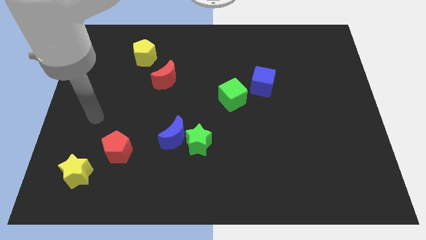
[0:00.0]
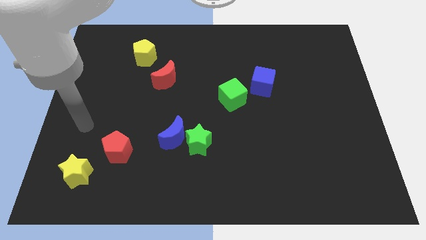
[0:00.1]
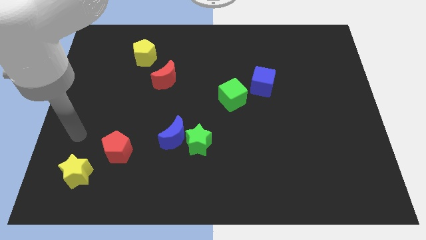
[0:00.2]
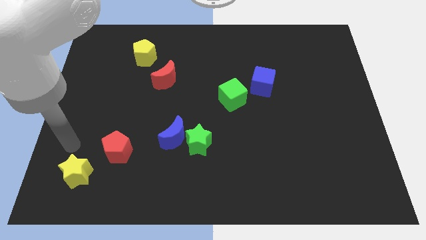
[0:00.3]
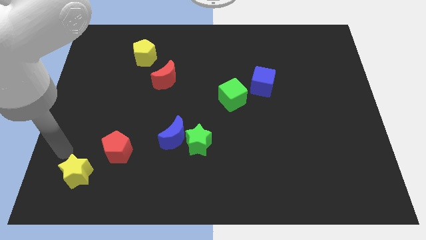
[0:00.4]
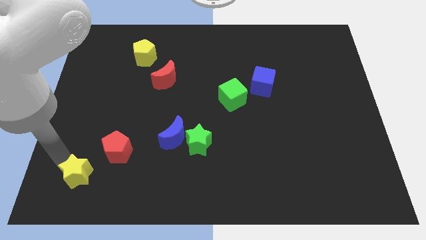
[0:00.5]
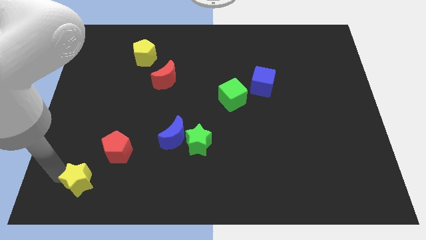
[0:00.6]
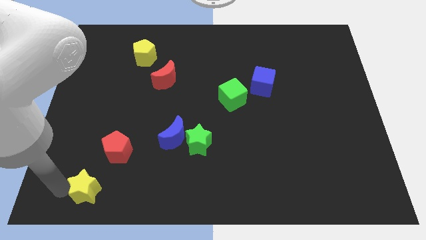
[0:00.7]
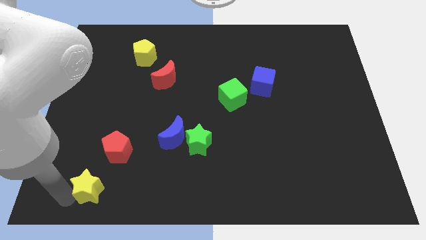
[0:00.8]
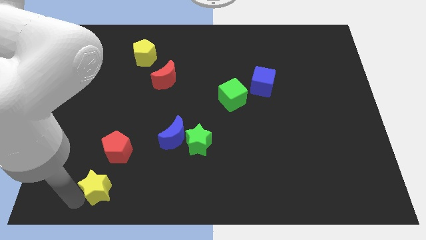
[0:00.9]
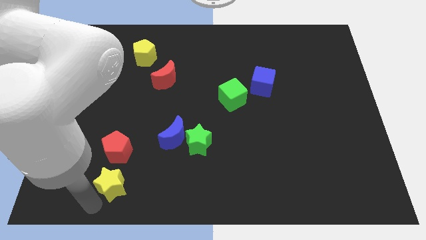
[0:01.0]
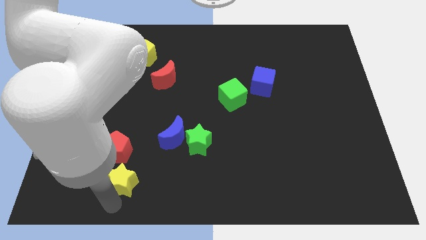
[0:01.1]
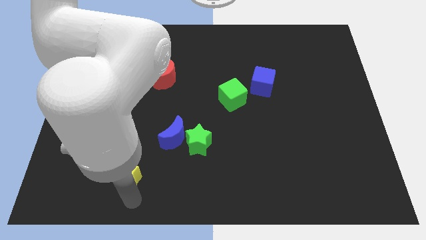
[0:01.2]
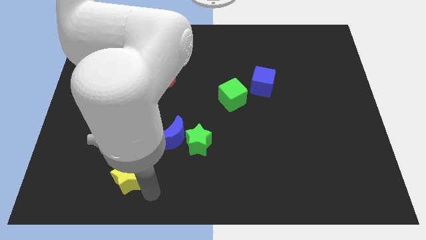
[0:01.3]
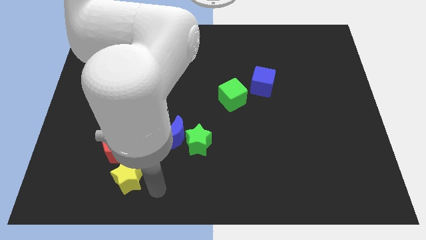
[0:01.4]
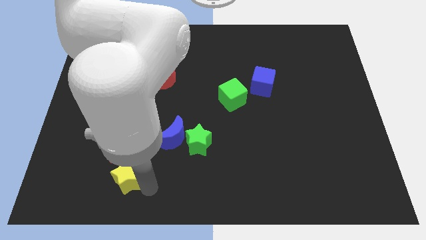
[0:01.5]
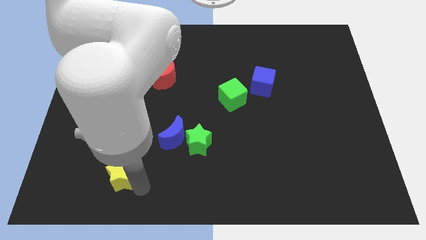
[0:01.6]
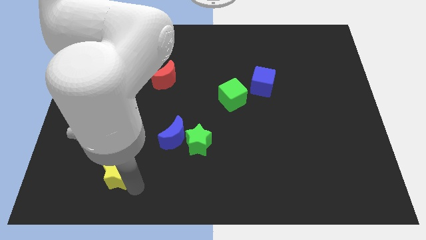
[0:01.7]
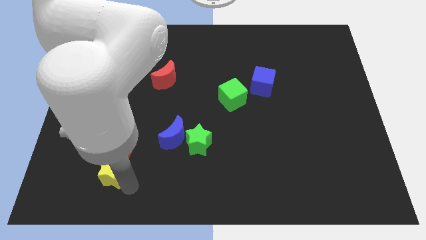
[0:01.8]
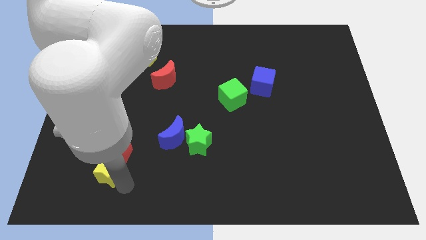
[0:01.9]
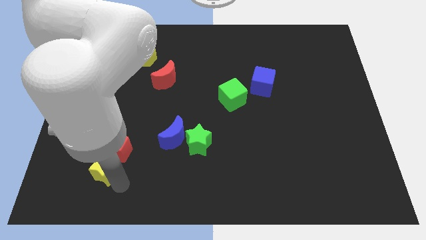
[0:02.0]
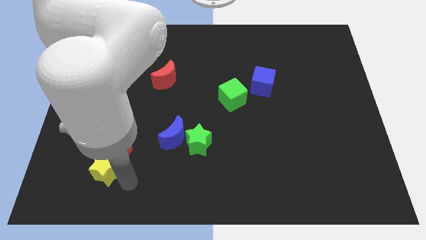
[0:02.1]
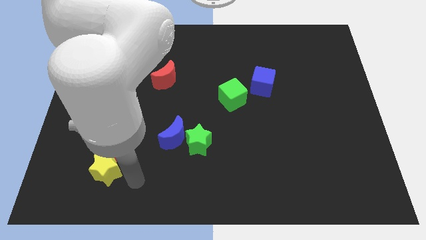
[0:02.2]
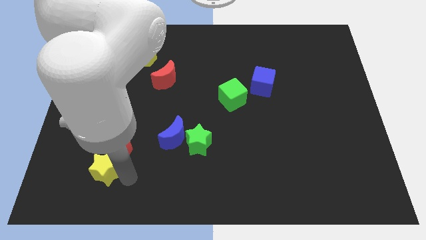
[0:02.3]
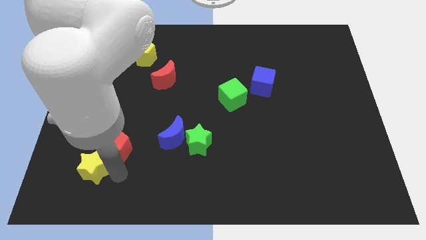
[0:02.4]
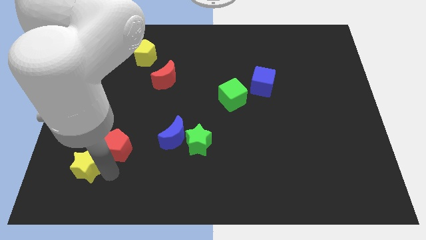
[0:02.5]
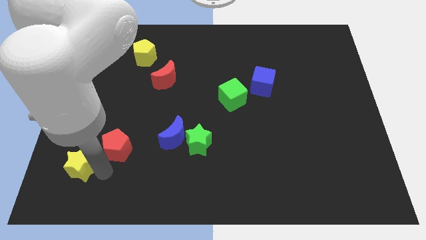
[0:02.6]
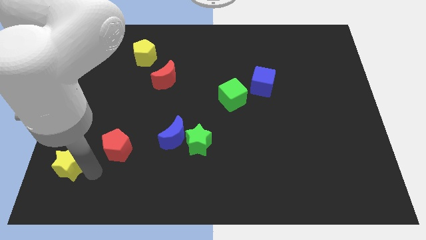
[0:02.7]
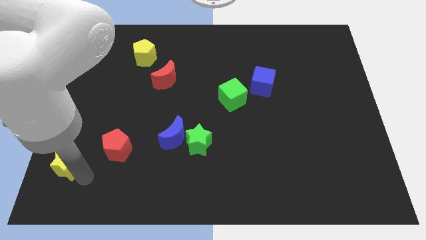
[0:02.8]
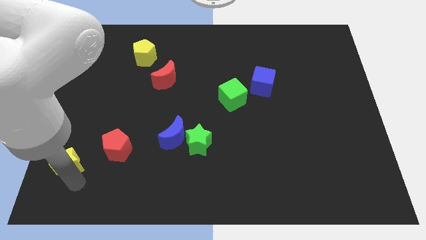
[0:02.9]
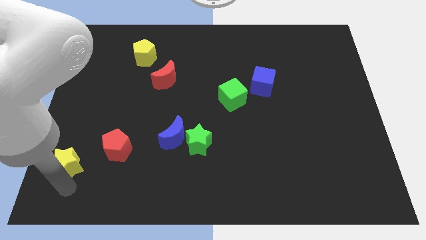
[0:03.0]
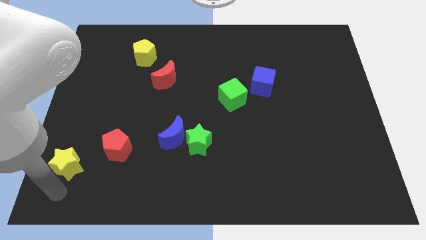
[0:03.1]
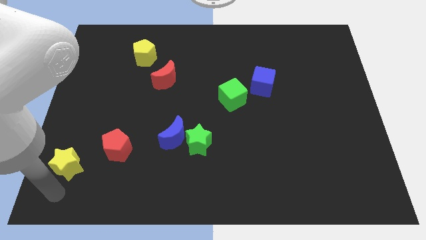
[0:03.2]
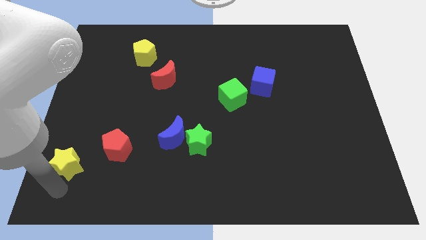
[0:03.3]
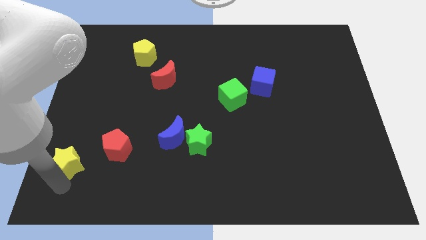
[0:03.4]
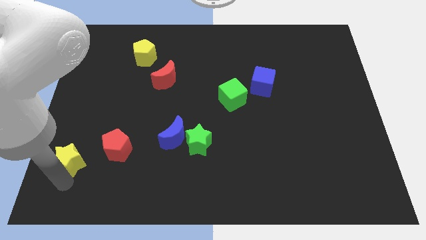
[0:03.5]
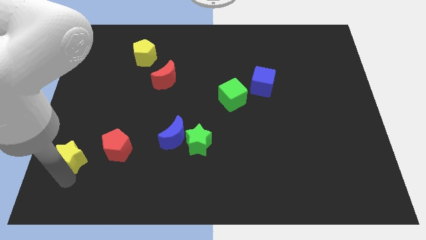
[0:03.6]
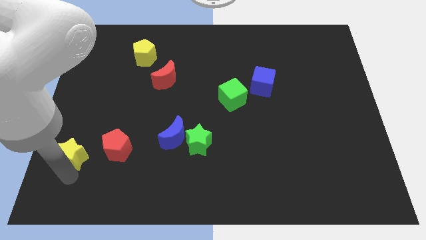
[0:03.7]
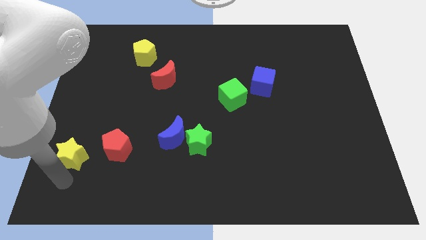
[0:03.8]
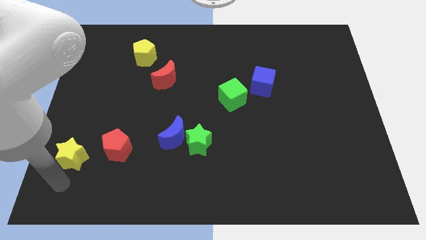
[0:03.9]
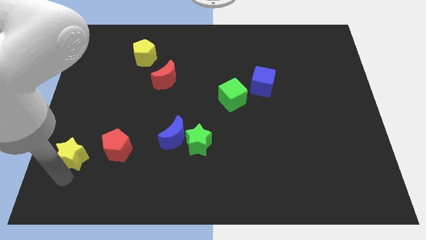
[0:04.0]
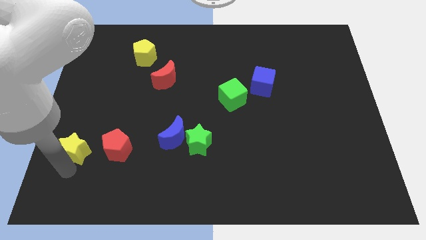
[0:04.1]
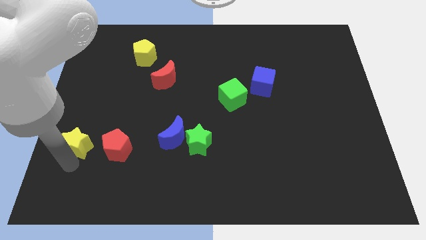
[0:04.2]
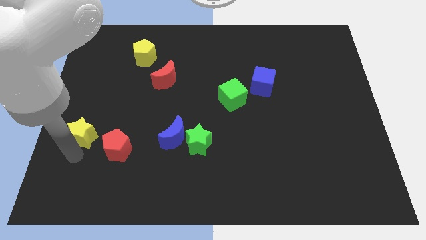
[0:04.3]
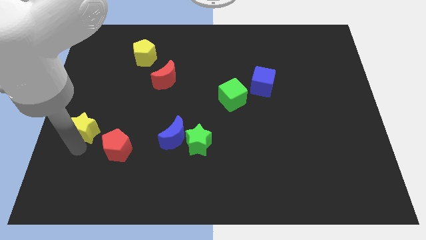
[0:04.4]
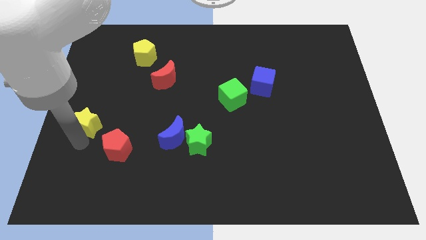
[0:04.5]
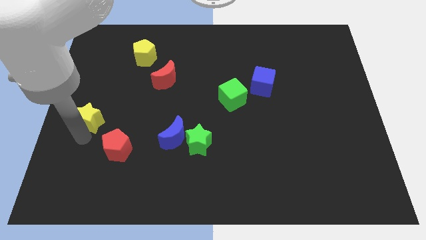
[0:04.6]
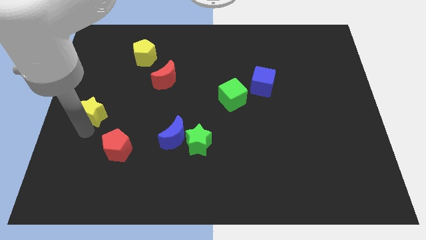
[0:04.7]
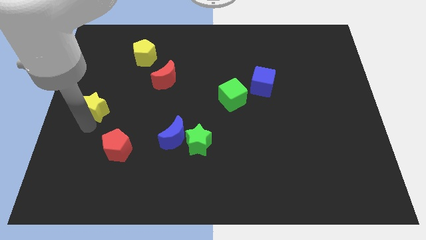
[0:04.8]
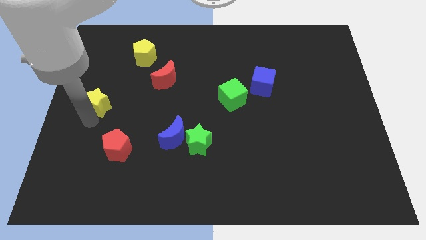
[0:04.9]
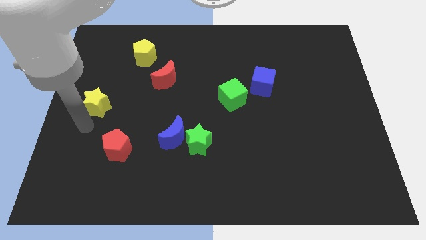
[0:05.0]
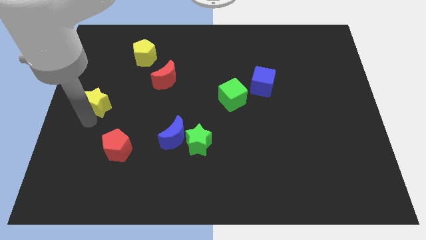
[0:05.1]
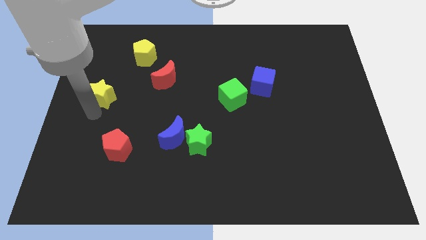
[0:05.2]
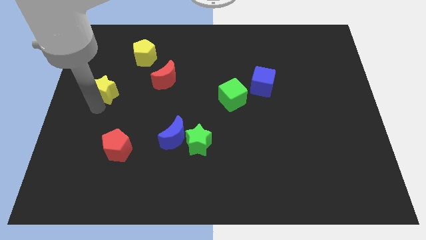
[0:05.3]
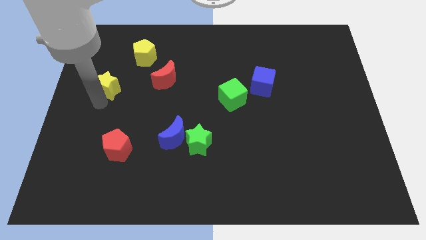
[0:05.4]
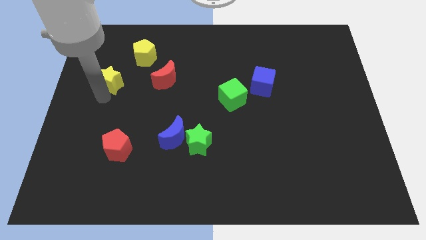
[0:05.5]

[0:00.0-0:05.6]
move the yellow star to the bottom left of the yellow pentagon

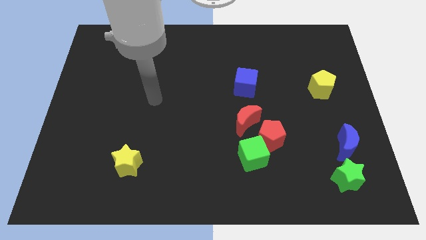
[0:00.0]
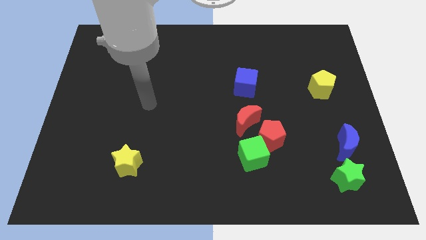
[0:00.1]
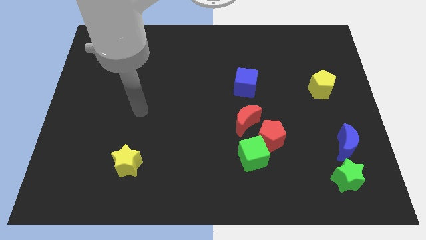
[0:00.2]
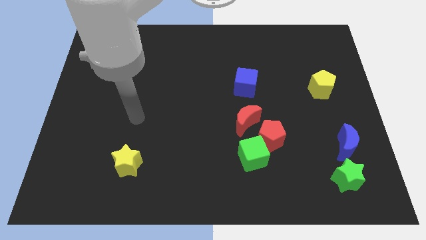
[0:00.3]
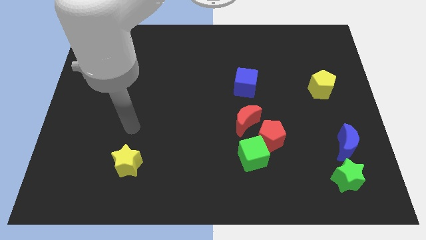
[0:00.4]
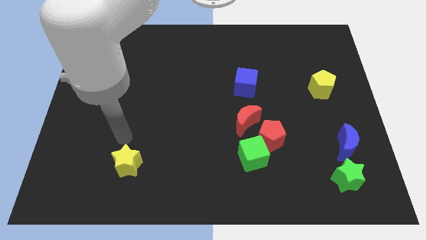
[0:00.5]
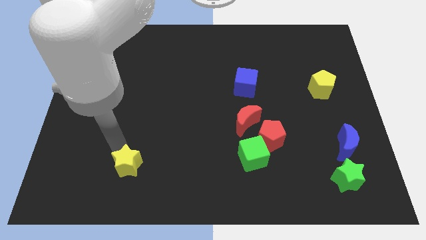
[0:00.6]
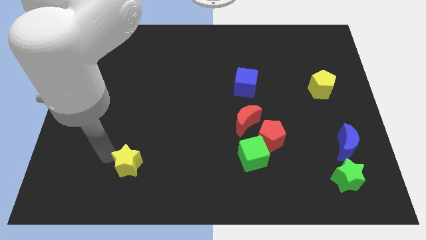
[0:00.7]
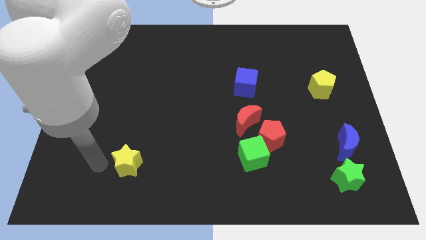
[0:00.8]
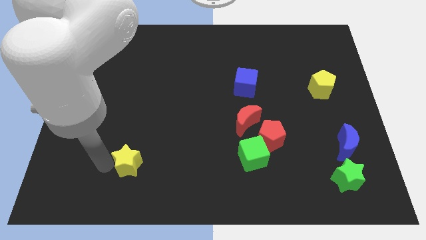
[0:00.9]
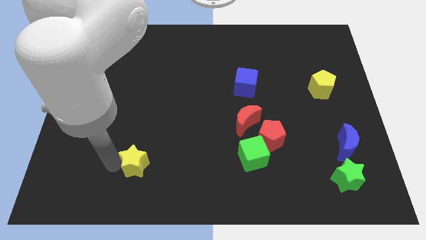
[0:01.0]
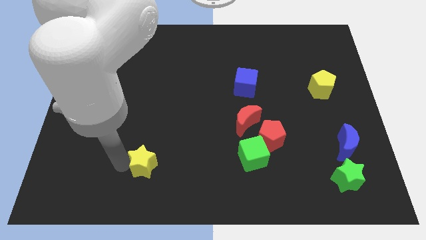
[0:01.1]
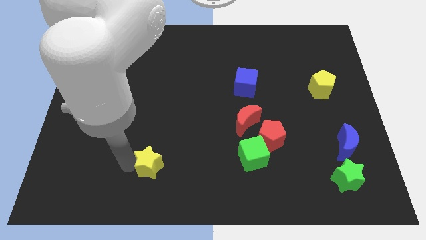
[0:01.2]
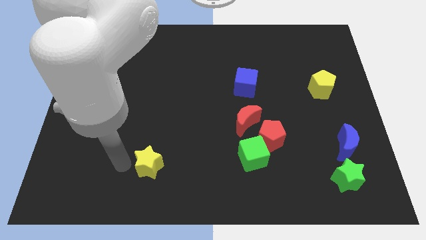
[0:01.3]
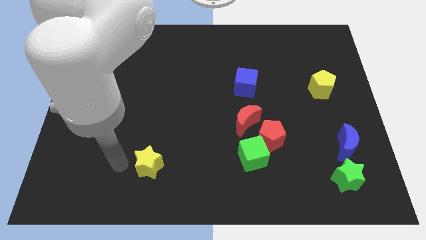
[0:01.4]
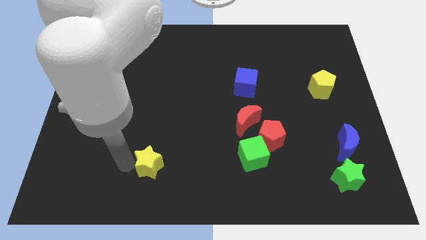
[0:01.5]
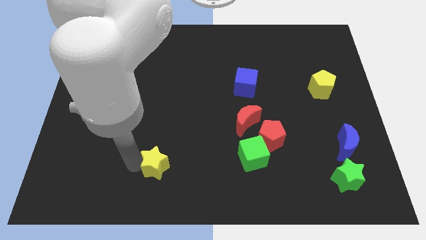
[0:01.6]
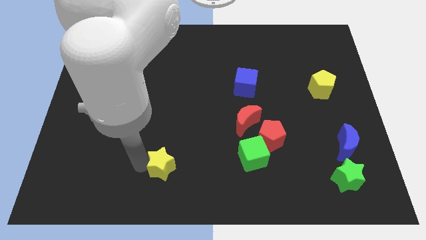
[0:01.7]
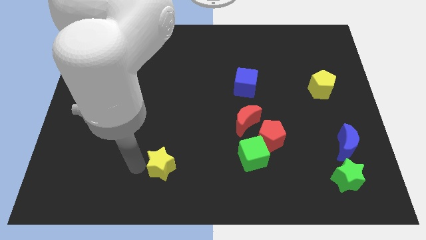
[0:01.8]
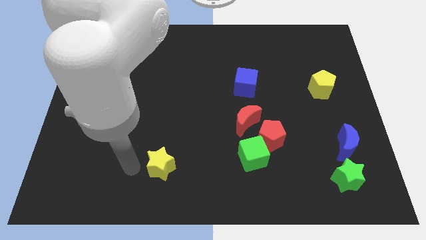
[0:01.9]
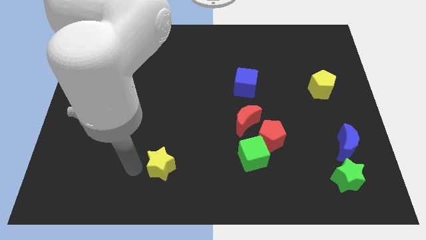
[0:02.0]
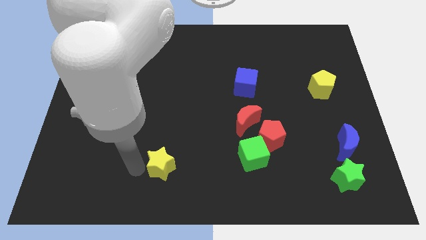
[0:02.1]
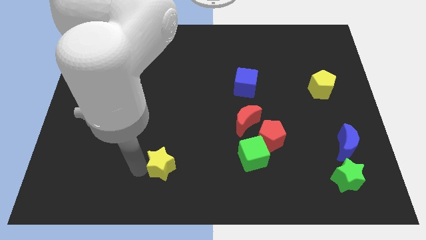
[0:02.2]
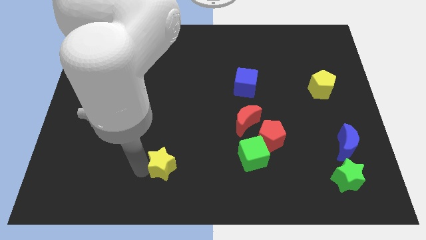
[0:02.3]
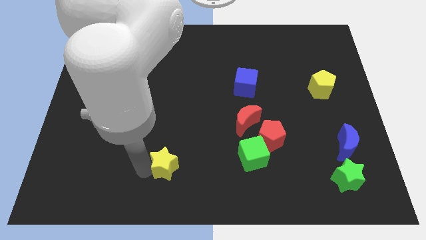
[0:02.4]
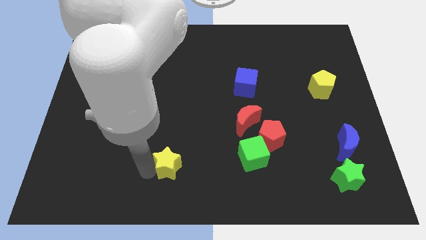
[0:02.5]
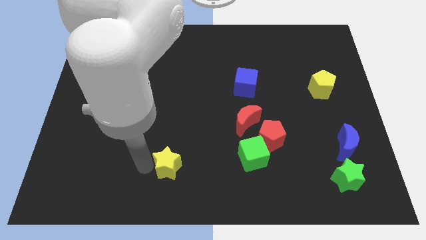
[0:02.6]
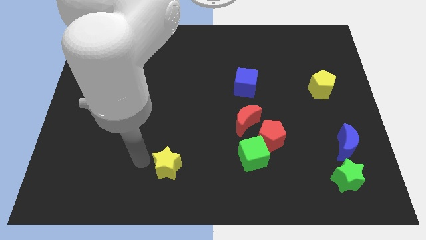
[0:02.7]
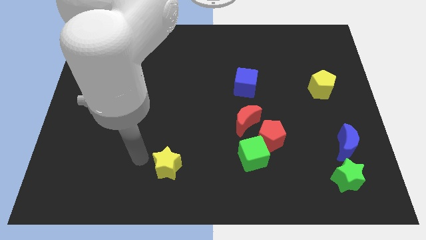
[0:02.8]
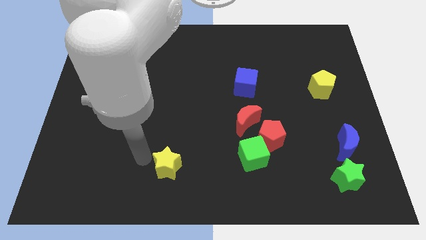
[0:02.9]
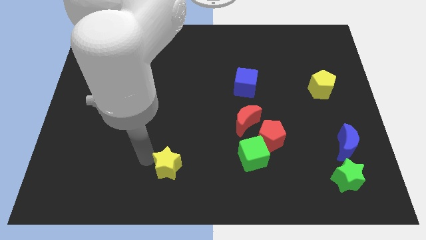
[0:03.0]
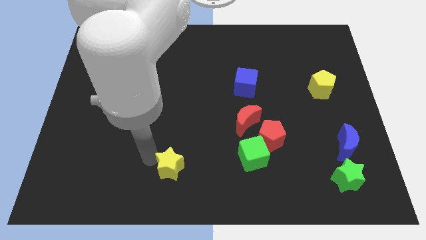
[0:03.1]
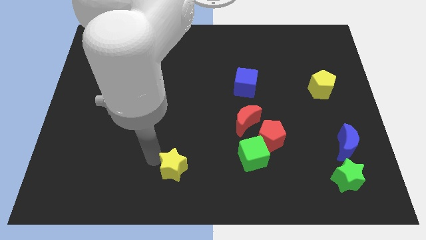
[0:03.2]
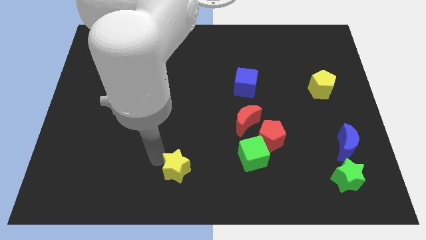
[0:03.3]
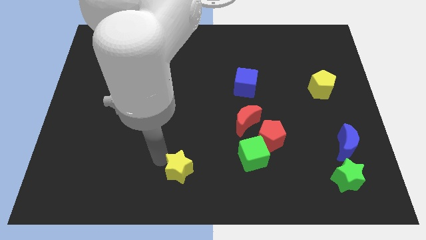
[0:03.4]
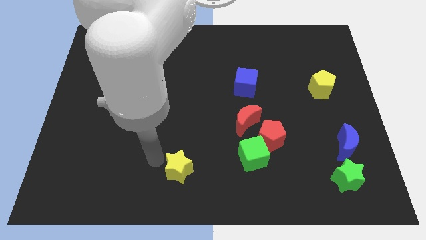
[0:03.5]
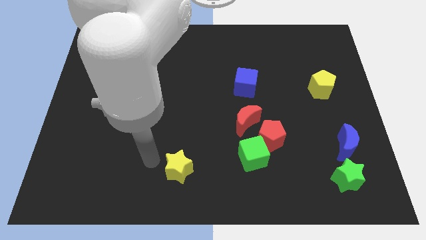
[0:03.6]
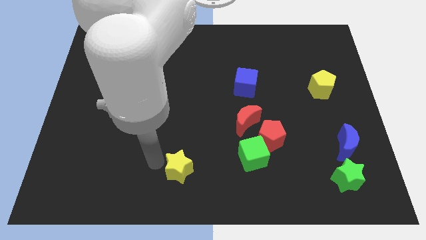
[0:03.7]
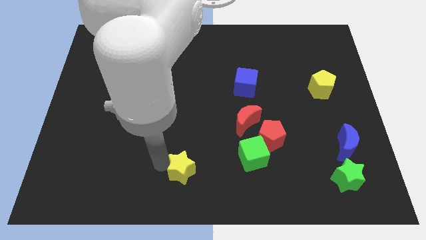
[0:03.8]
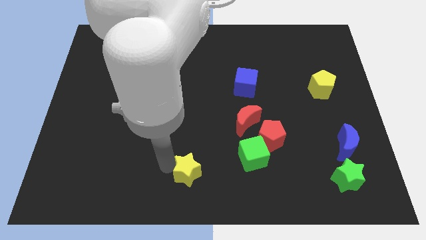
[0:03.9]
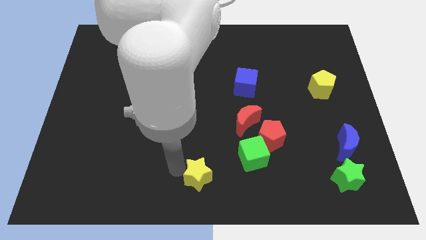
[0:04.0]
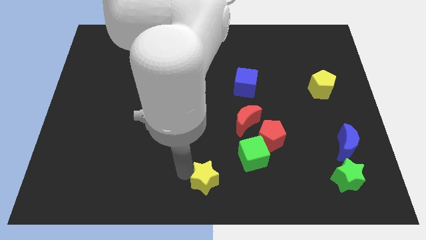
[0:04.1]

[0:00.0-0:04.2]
move the yellow star to the bottom left of the green cube
